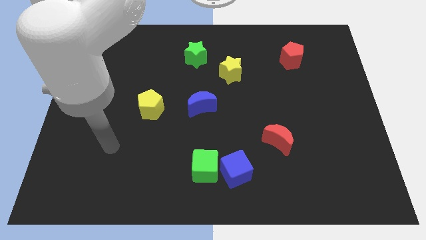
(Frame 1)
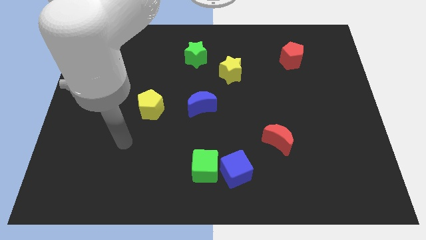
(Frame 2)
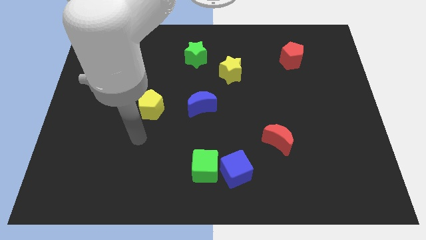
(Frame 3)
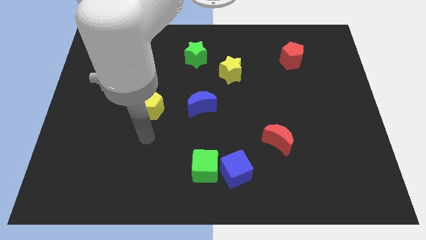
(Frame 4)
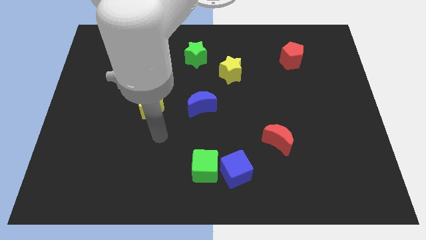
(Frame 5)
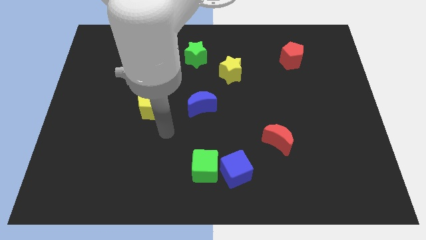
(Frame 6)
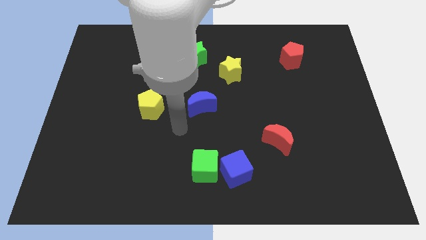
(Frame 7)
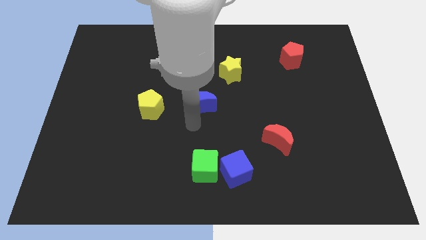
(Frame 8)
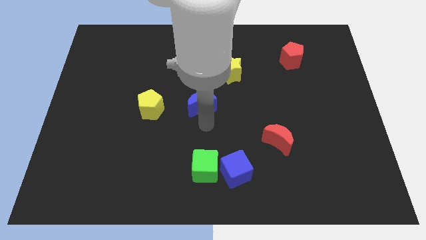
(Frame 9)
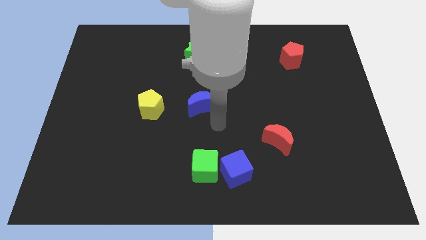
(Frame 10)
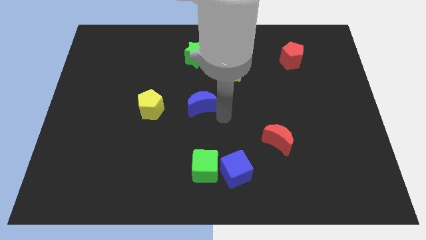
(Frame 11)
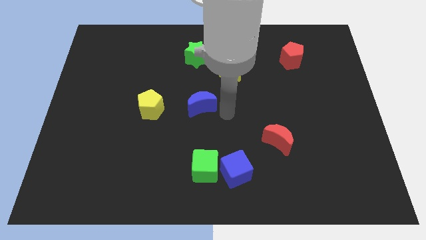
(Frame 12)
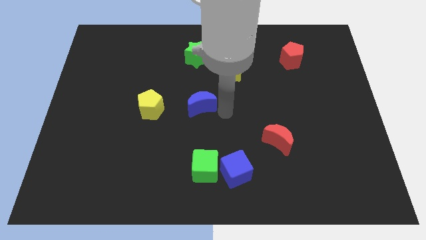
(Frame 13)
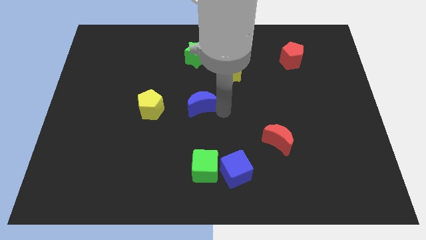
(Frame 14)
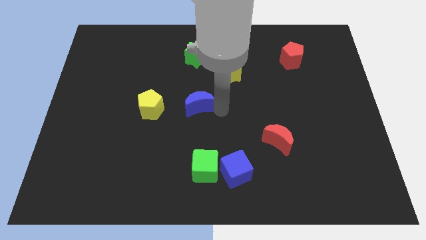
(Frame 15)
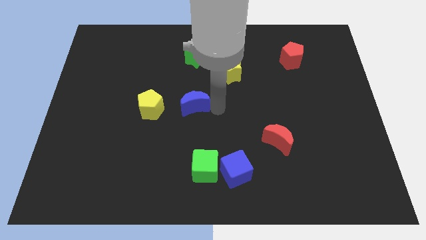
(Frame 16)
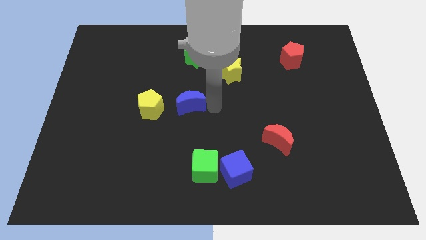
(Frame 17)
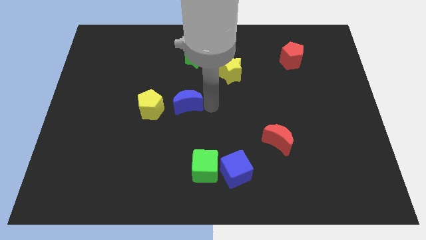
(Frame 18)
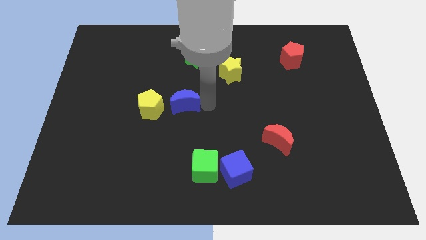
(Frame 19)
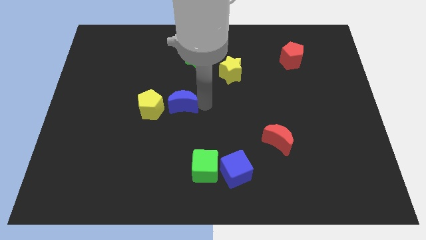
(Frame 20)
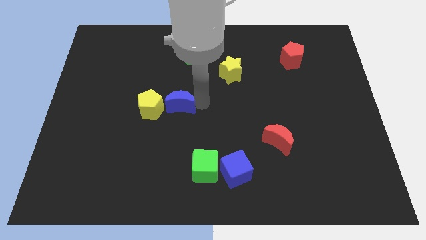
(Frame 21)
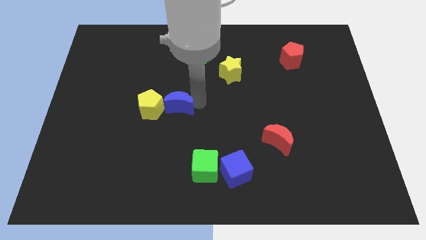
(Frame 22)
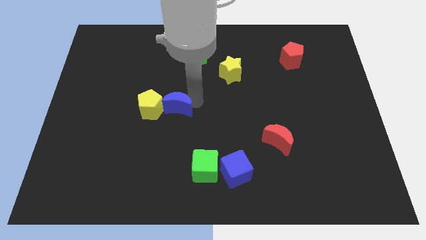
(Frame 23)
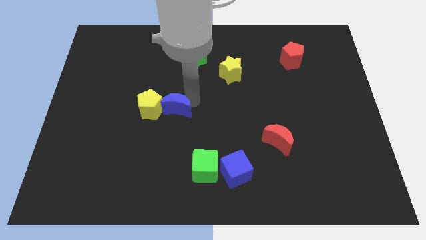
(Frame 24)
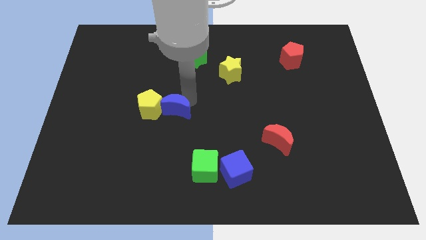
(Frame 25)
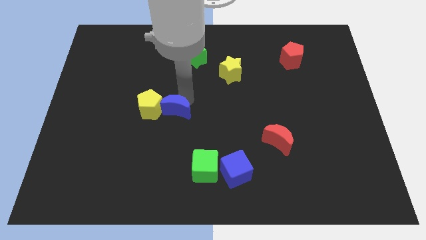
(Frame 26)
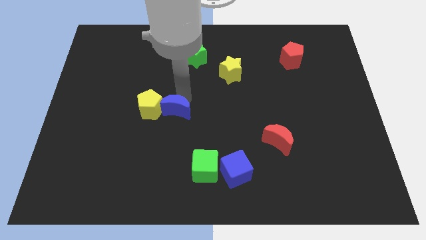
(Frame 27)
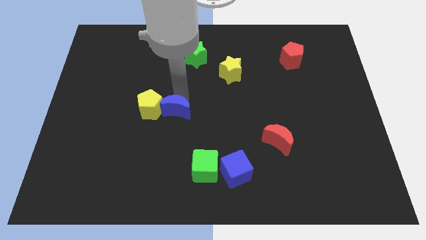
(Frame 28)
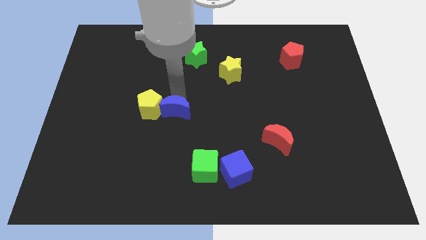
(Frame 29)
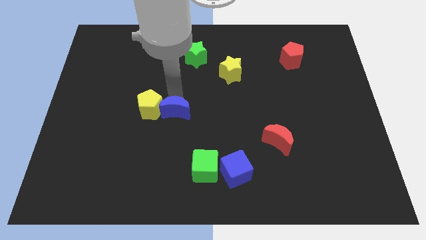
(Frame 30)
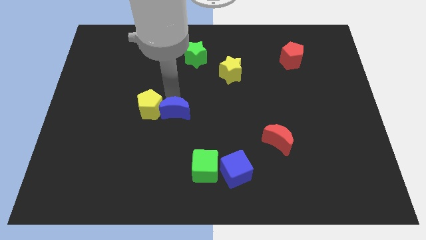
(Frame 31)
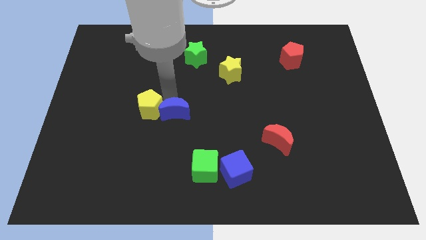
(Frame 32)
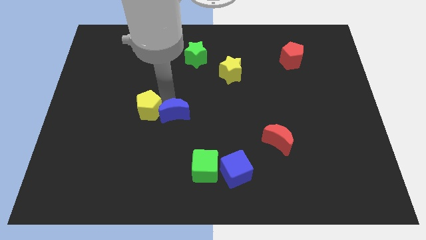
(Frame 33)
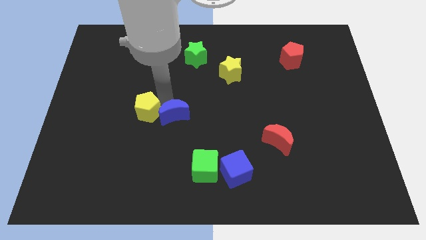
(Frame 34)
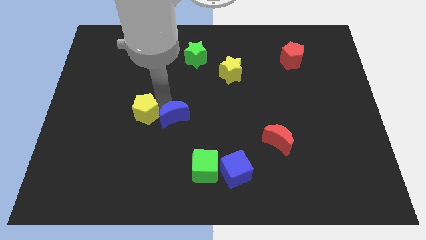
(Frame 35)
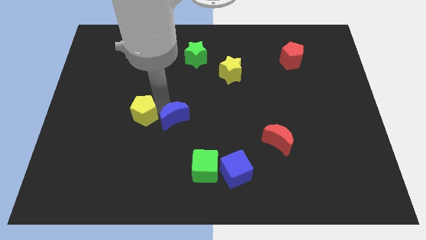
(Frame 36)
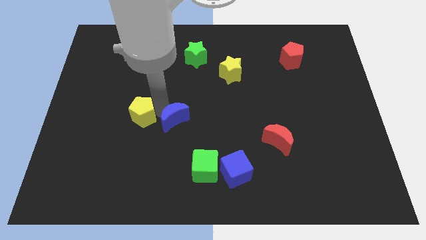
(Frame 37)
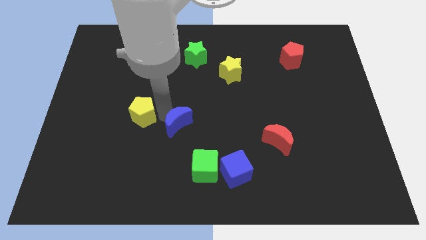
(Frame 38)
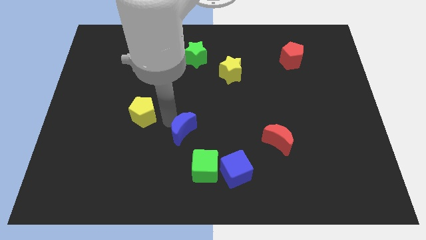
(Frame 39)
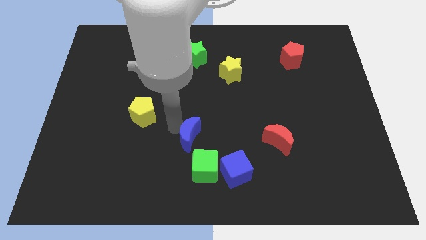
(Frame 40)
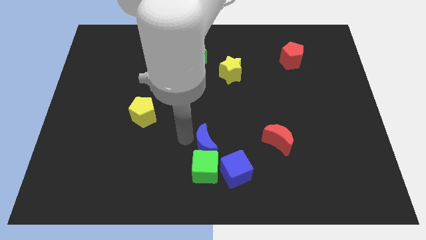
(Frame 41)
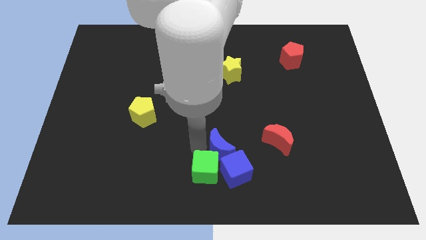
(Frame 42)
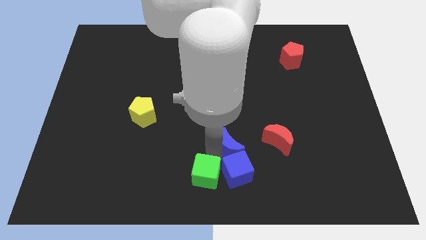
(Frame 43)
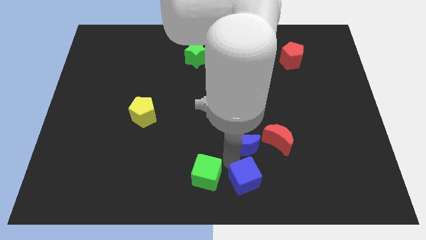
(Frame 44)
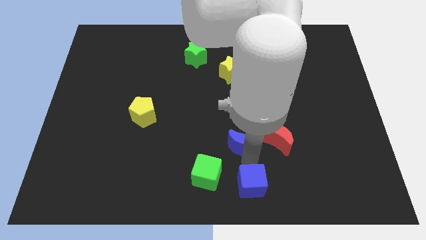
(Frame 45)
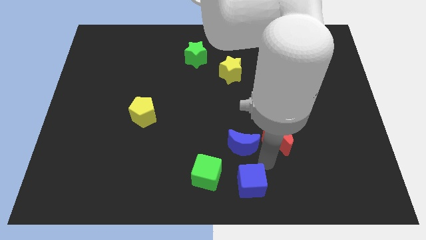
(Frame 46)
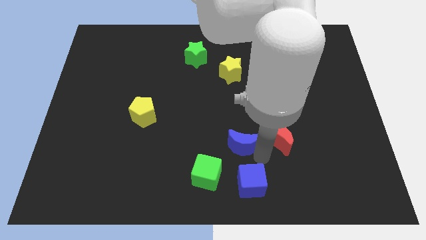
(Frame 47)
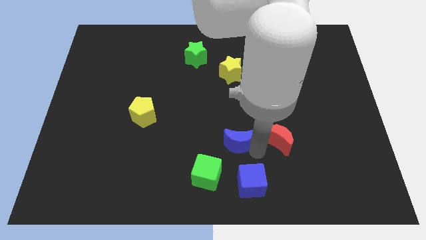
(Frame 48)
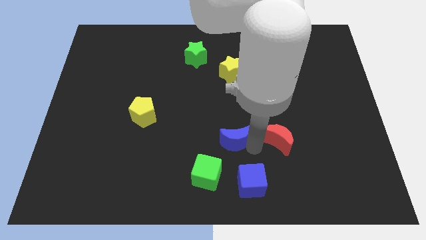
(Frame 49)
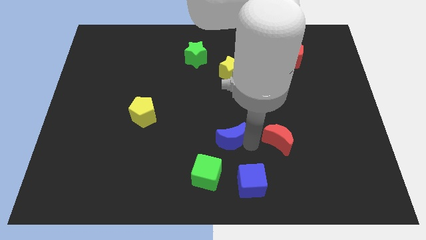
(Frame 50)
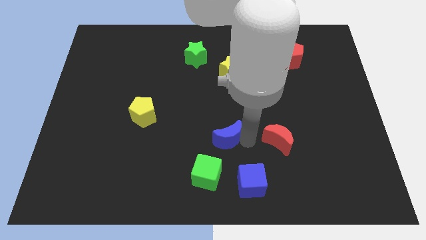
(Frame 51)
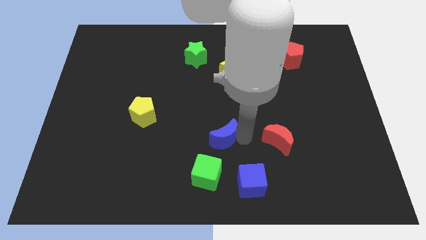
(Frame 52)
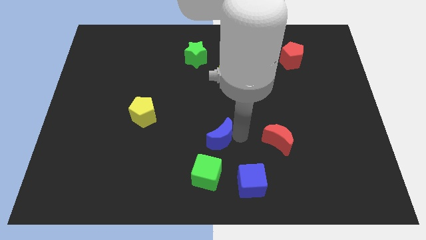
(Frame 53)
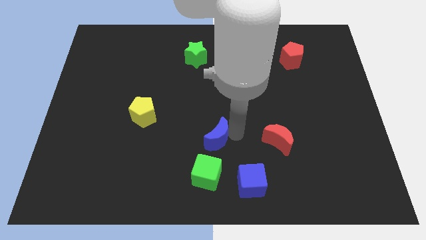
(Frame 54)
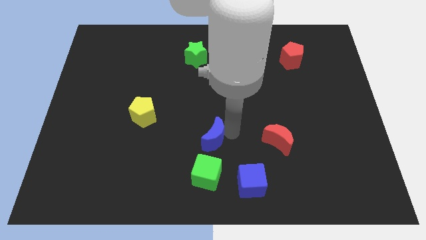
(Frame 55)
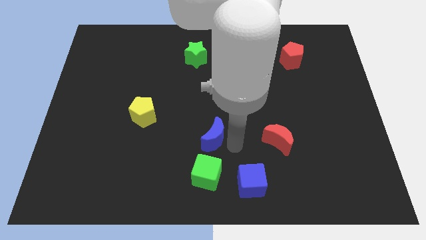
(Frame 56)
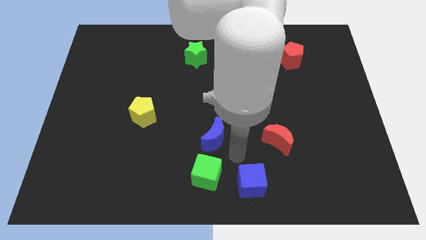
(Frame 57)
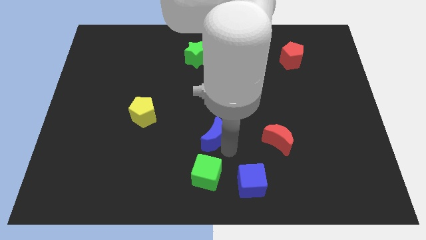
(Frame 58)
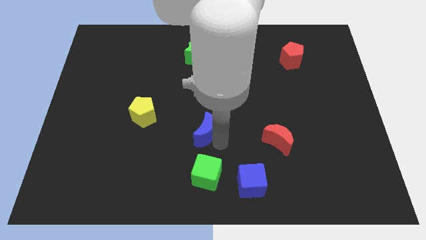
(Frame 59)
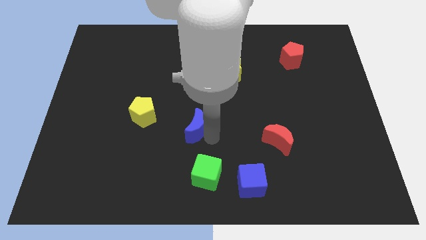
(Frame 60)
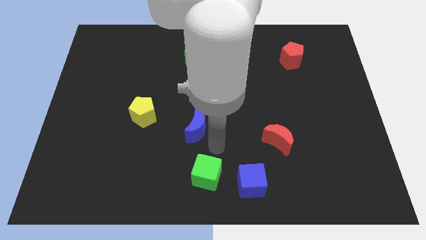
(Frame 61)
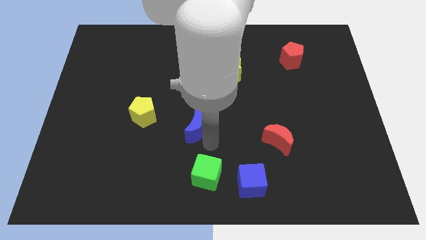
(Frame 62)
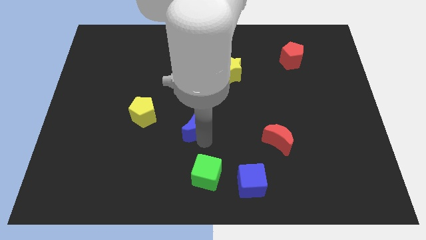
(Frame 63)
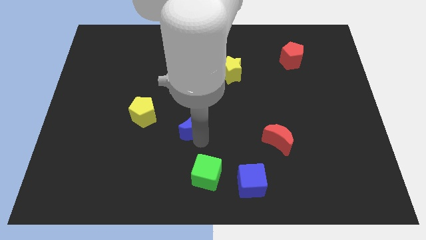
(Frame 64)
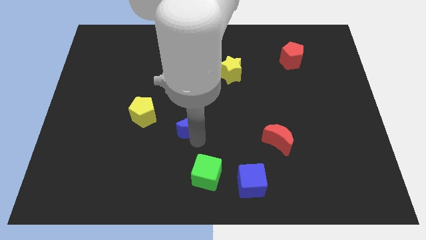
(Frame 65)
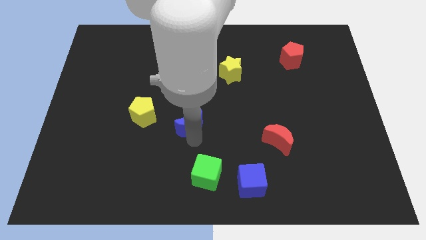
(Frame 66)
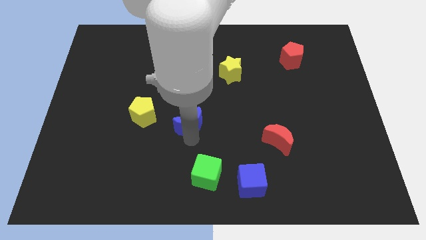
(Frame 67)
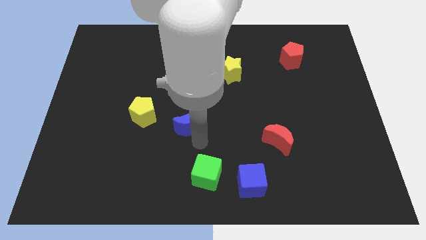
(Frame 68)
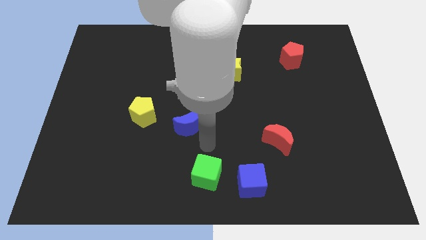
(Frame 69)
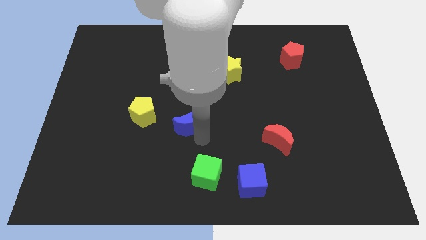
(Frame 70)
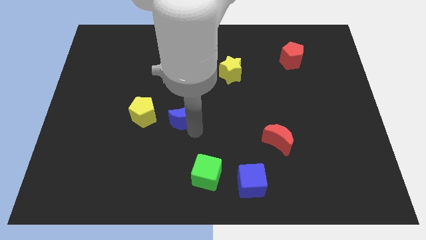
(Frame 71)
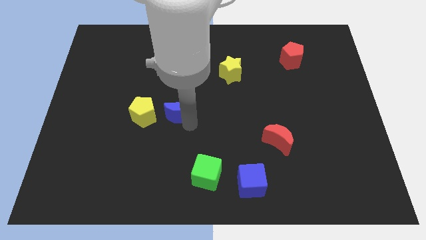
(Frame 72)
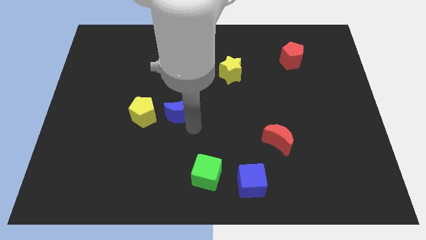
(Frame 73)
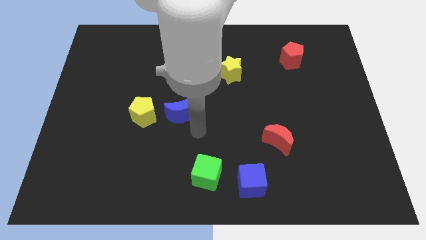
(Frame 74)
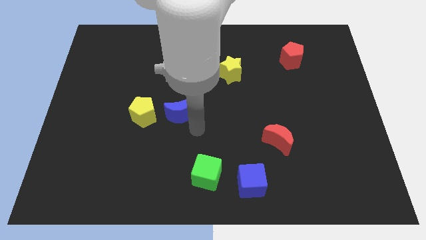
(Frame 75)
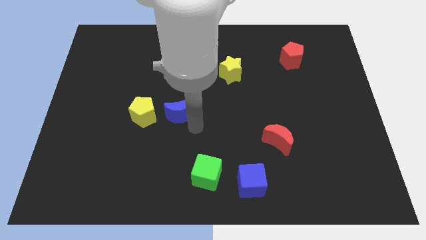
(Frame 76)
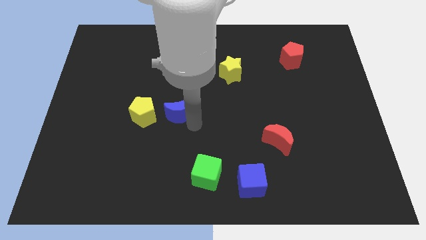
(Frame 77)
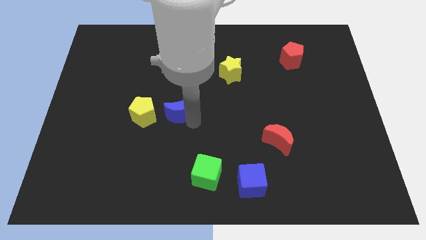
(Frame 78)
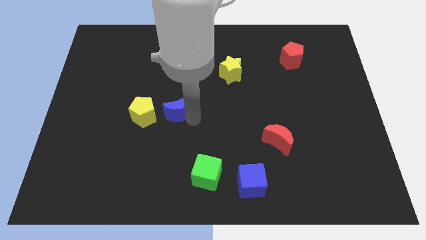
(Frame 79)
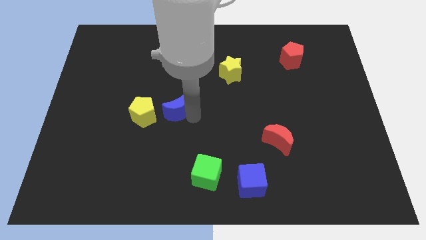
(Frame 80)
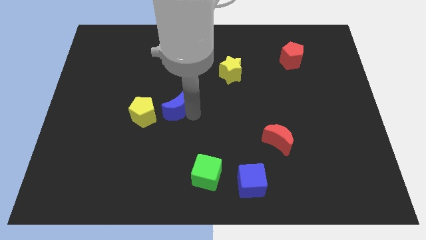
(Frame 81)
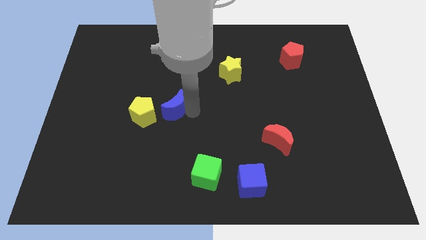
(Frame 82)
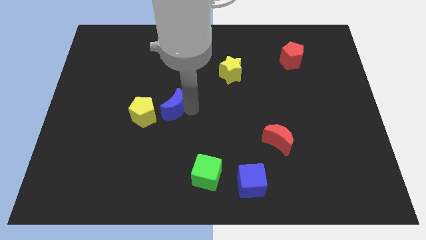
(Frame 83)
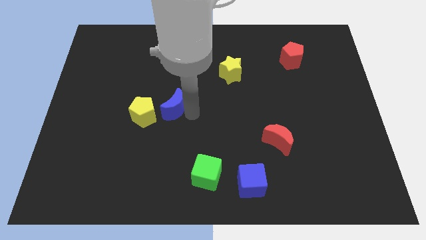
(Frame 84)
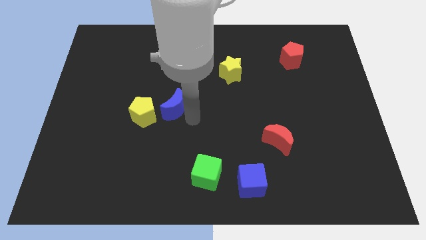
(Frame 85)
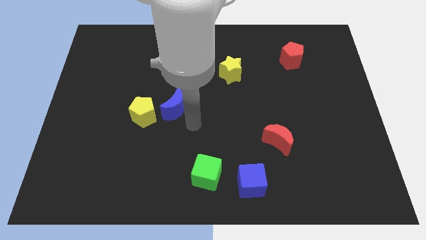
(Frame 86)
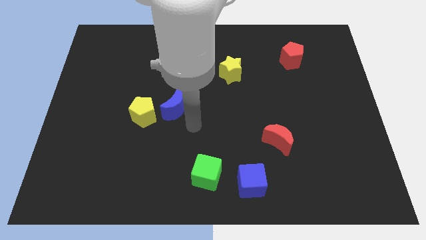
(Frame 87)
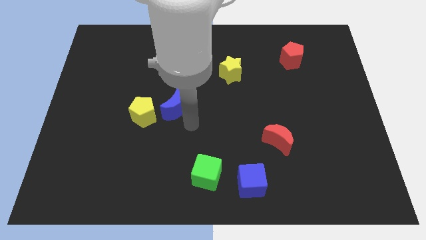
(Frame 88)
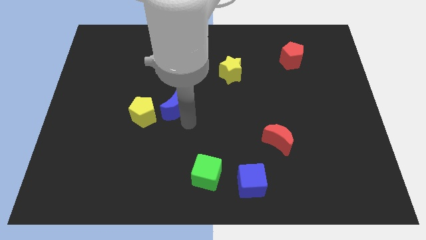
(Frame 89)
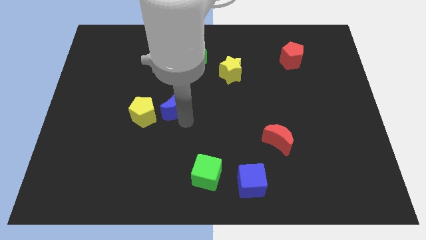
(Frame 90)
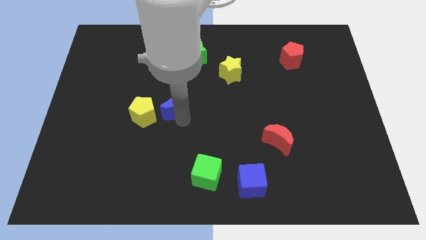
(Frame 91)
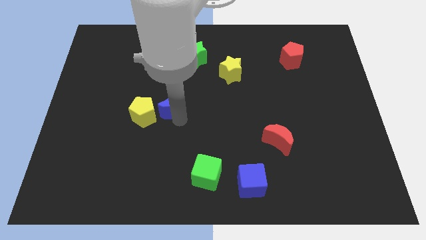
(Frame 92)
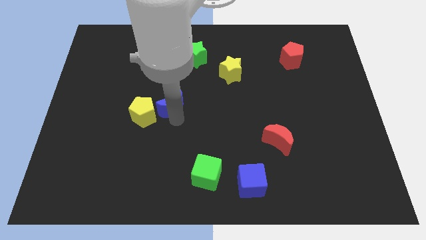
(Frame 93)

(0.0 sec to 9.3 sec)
slightly move the blue moon left
